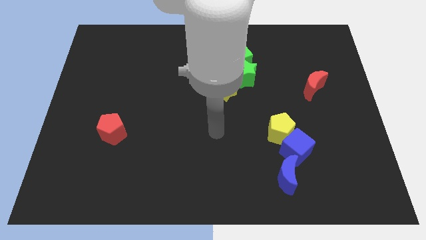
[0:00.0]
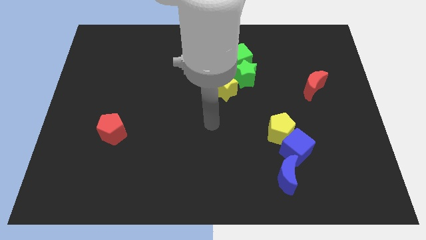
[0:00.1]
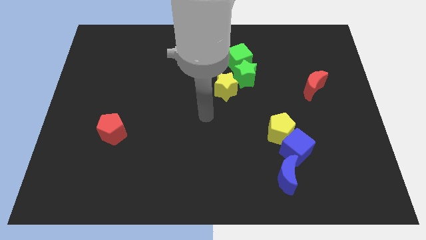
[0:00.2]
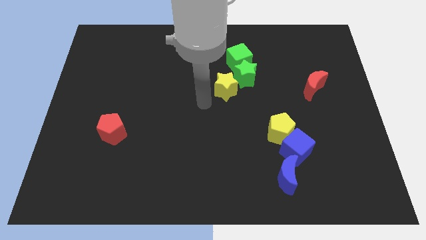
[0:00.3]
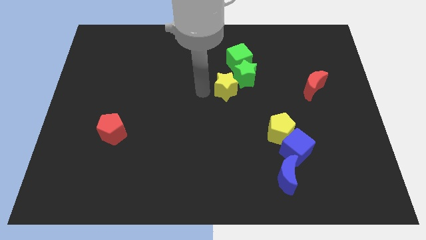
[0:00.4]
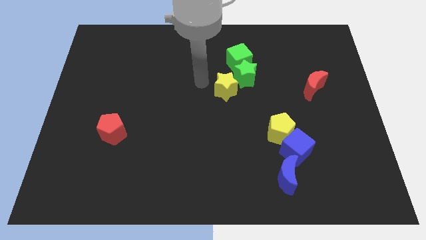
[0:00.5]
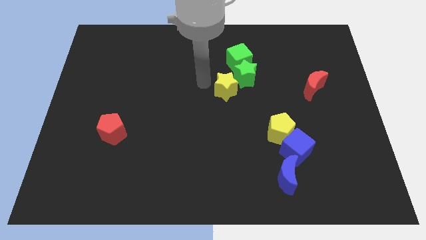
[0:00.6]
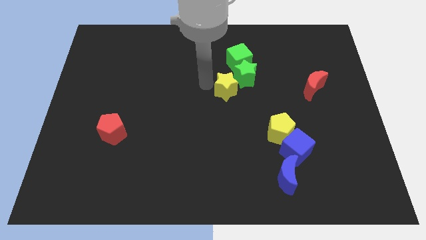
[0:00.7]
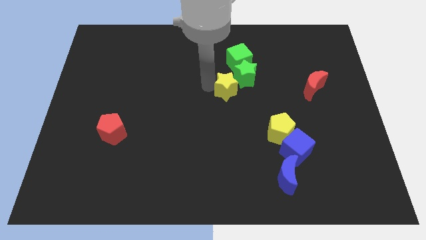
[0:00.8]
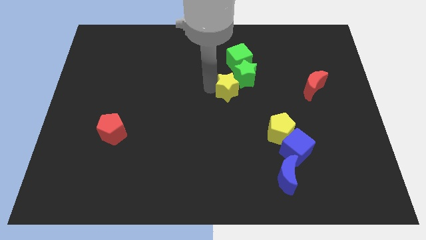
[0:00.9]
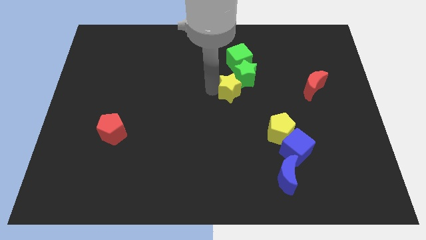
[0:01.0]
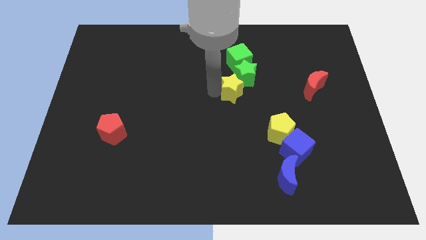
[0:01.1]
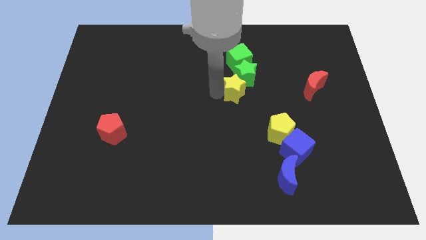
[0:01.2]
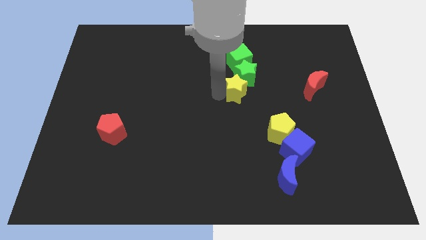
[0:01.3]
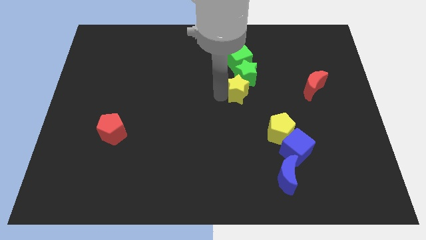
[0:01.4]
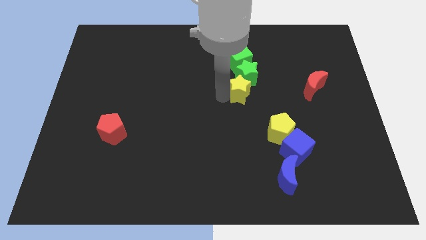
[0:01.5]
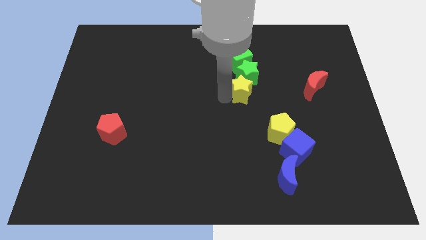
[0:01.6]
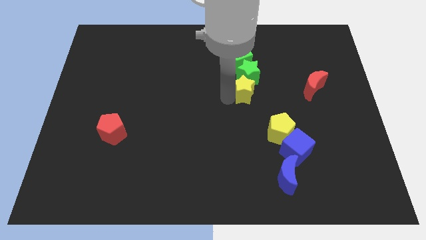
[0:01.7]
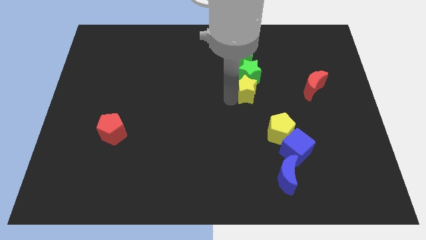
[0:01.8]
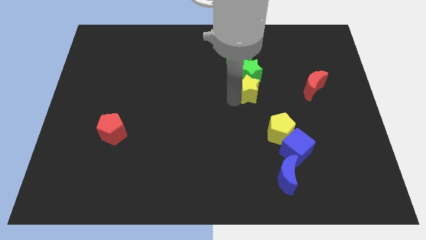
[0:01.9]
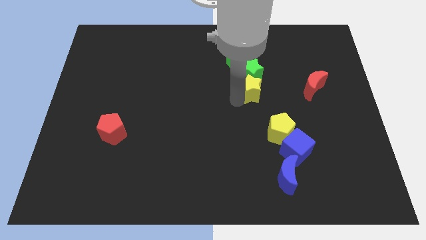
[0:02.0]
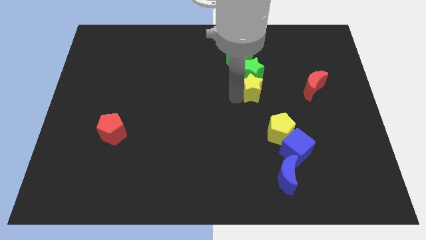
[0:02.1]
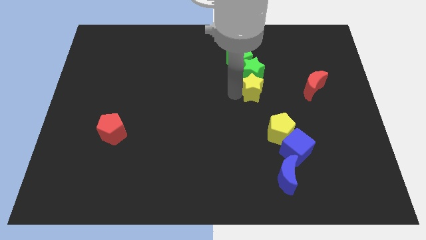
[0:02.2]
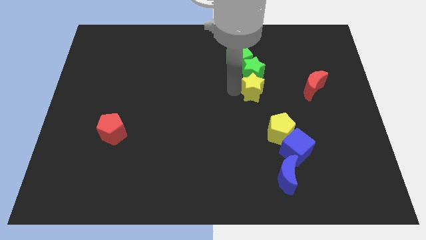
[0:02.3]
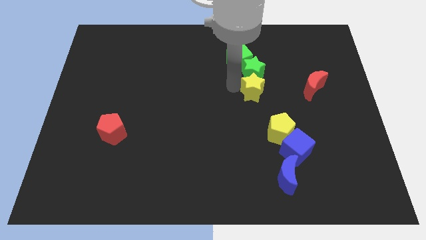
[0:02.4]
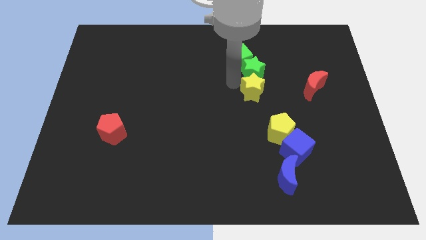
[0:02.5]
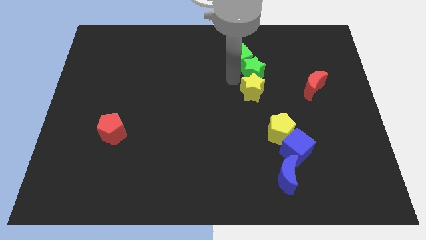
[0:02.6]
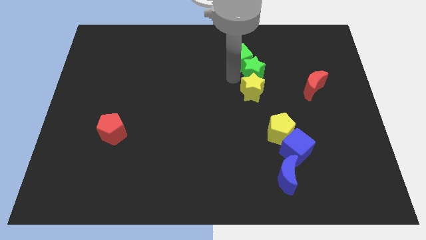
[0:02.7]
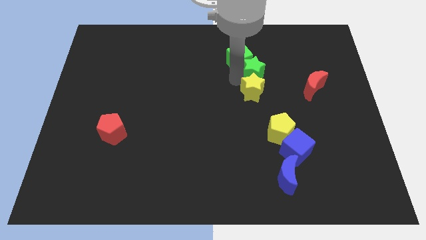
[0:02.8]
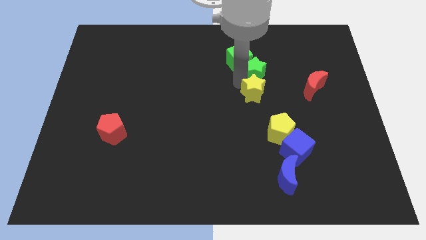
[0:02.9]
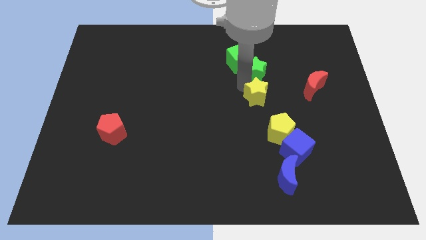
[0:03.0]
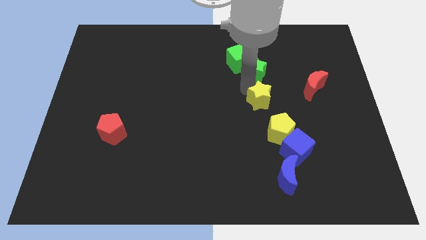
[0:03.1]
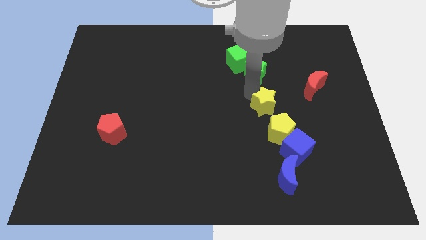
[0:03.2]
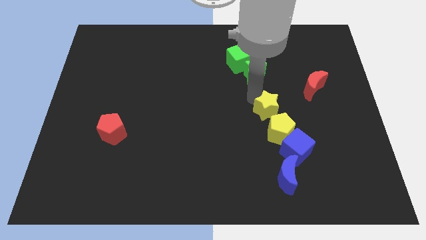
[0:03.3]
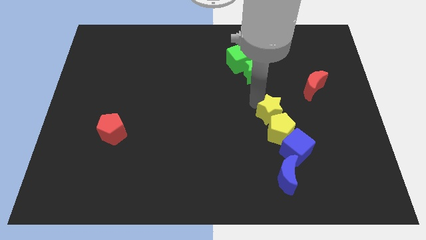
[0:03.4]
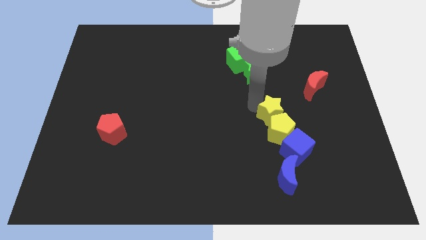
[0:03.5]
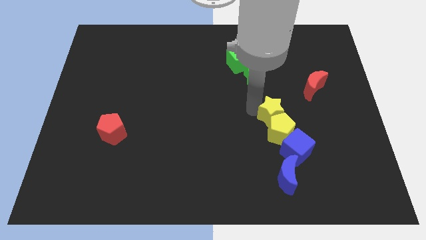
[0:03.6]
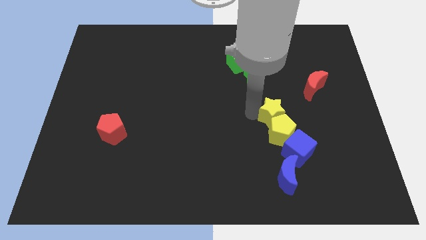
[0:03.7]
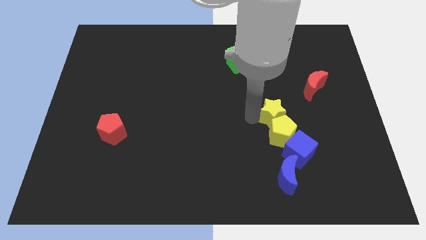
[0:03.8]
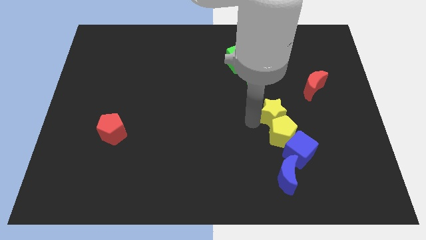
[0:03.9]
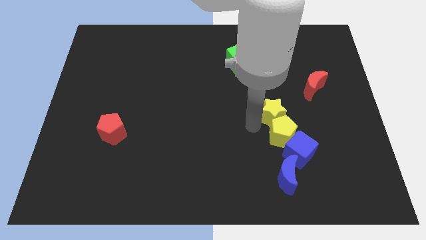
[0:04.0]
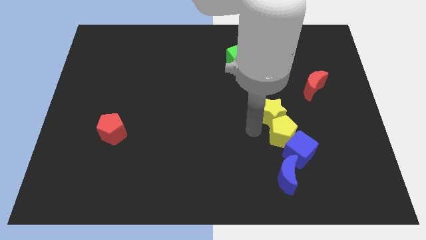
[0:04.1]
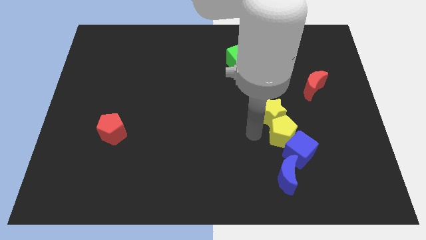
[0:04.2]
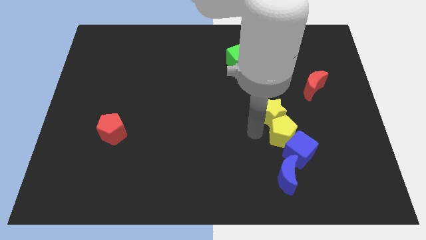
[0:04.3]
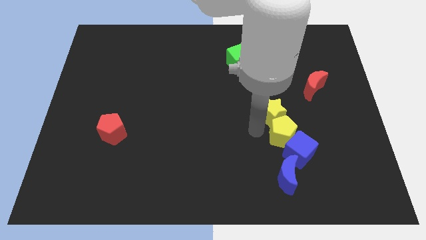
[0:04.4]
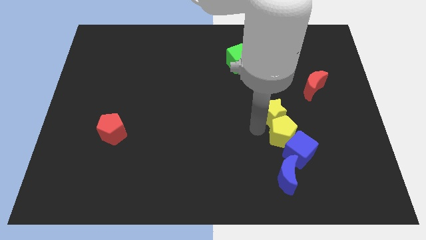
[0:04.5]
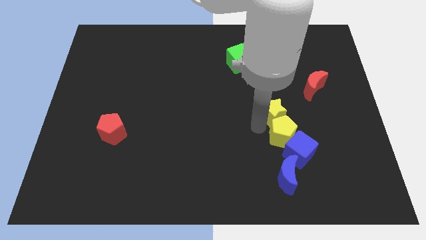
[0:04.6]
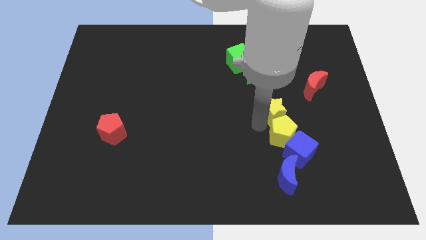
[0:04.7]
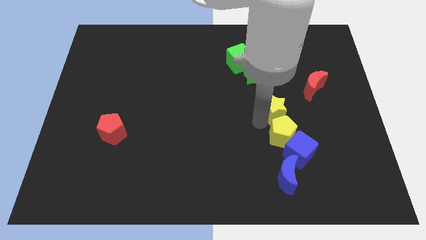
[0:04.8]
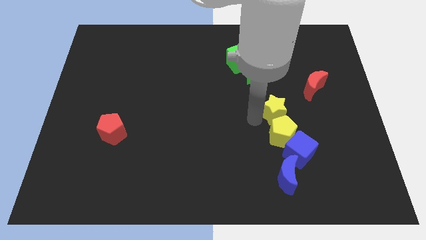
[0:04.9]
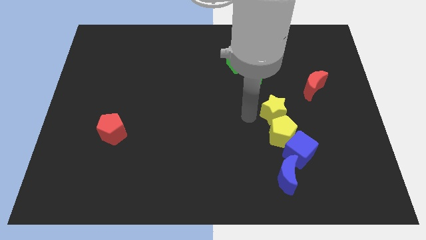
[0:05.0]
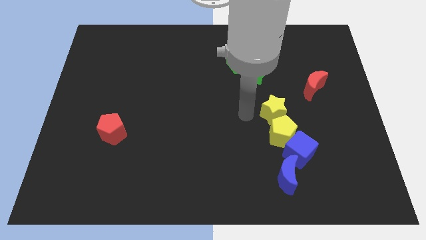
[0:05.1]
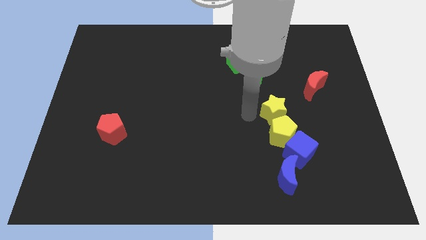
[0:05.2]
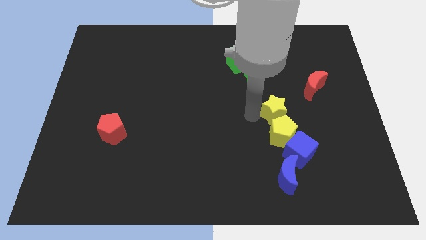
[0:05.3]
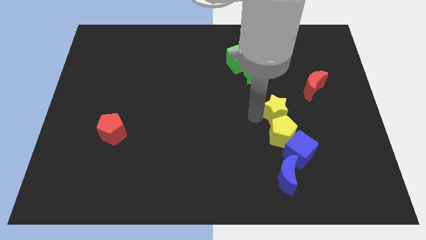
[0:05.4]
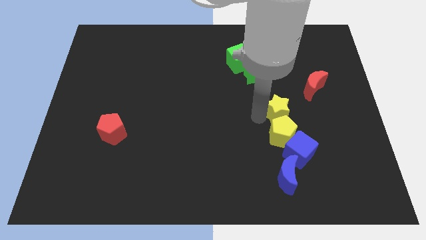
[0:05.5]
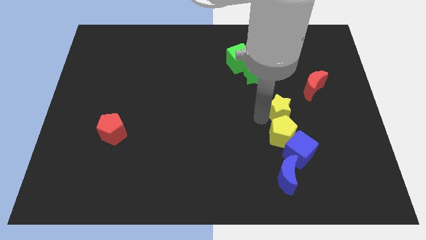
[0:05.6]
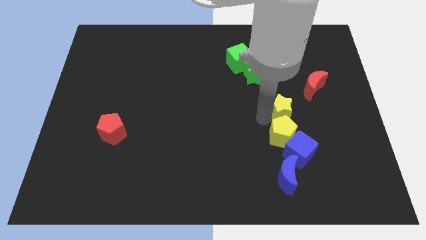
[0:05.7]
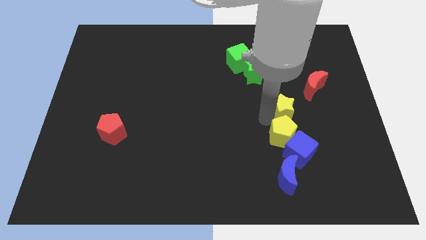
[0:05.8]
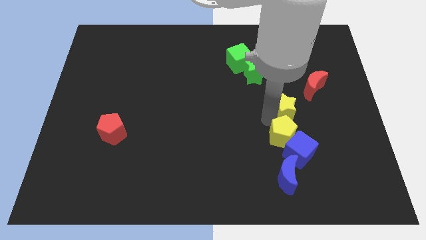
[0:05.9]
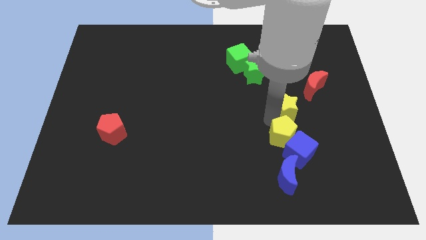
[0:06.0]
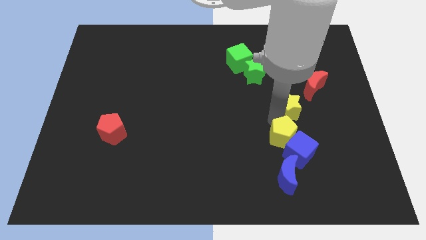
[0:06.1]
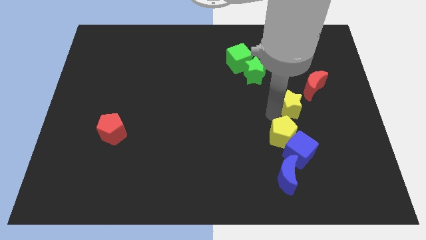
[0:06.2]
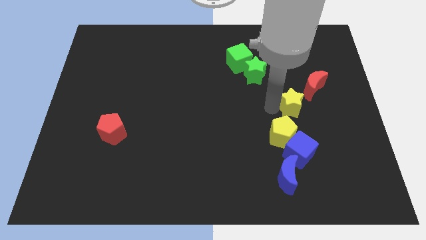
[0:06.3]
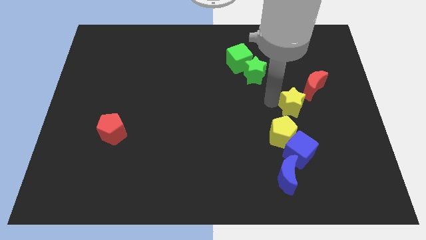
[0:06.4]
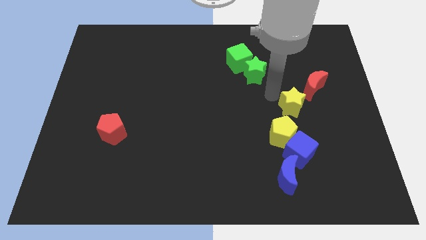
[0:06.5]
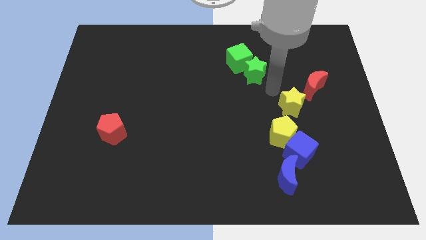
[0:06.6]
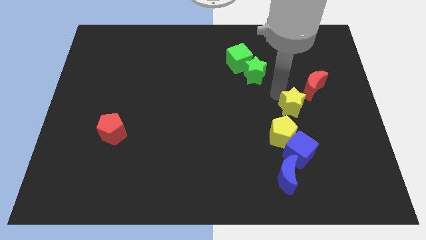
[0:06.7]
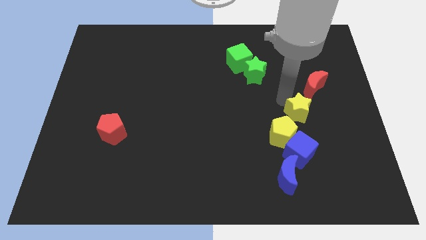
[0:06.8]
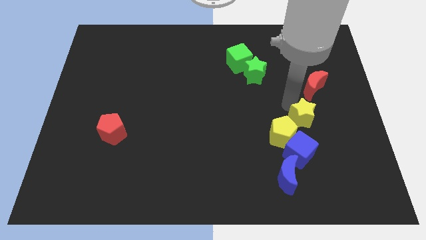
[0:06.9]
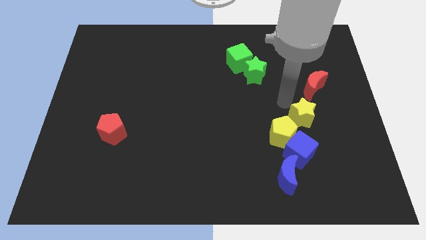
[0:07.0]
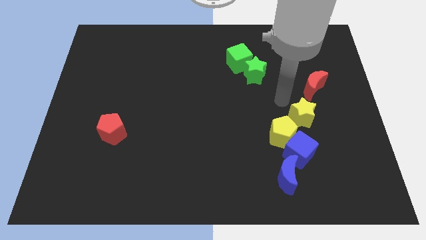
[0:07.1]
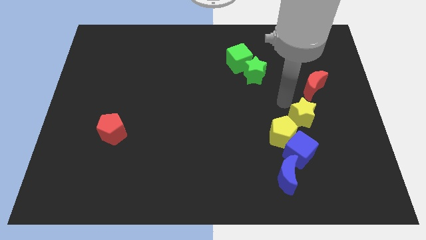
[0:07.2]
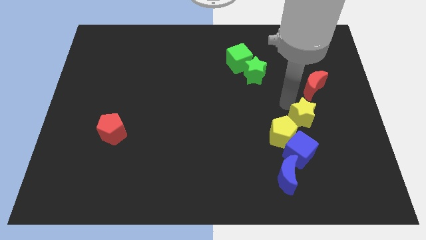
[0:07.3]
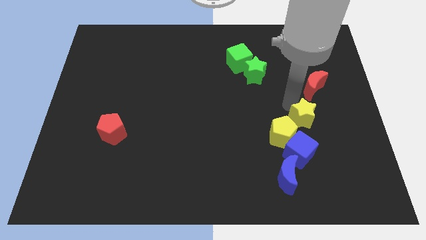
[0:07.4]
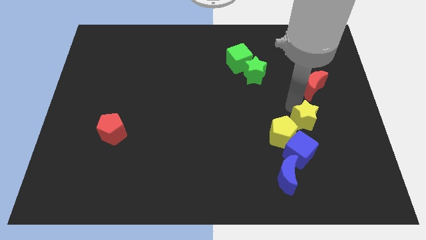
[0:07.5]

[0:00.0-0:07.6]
slide the yellow star to the top right of the blue cube
